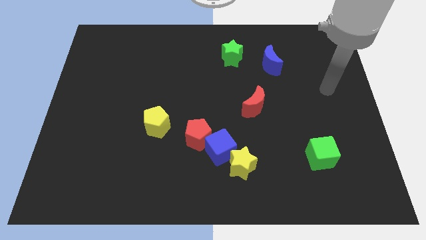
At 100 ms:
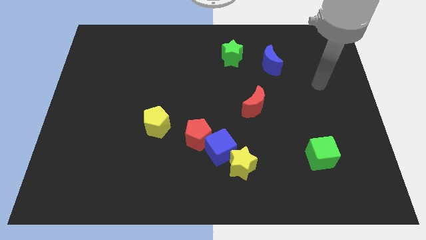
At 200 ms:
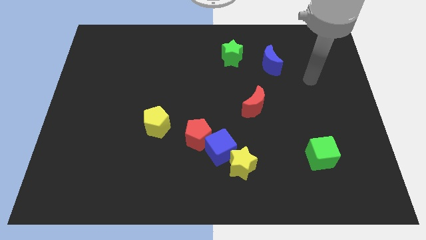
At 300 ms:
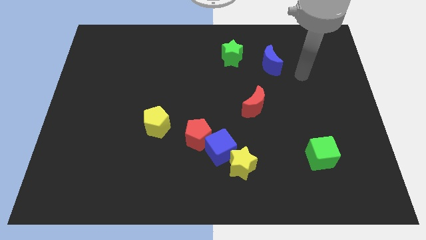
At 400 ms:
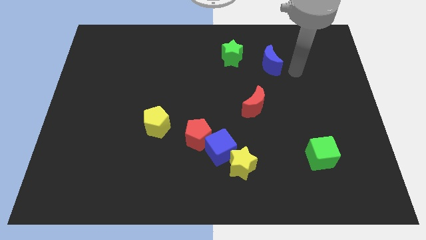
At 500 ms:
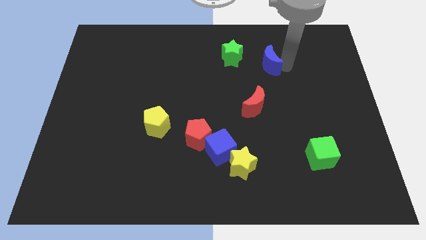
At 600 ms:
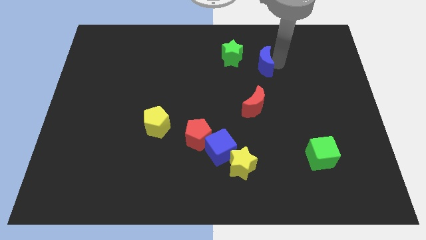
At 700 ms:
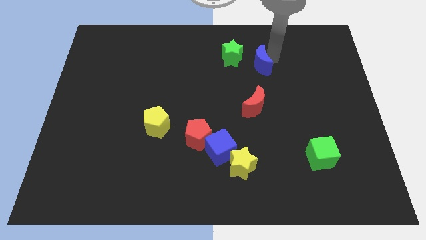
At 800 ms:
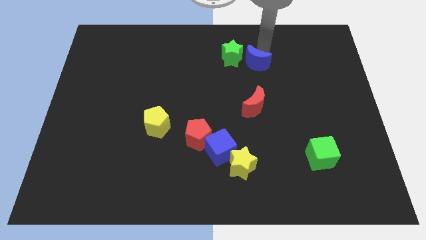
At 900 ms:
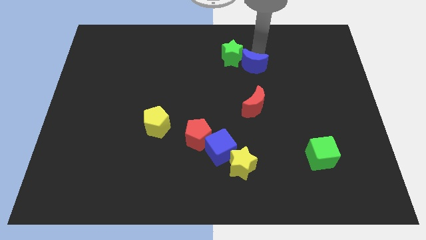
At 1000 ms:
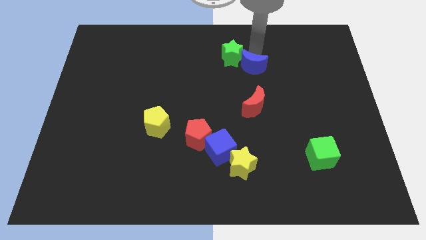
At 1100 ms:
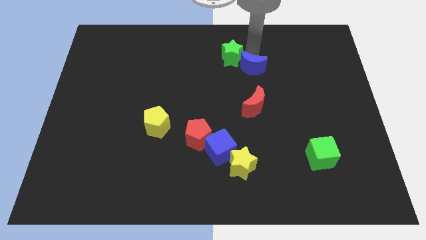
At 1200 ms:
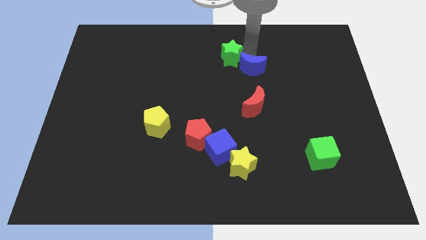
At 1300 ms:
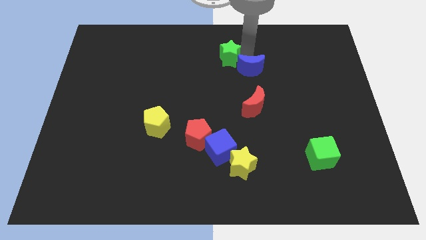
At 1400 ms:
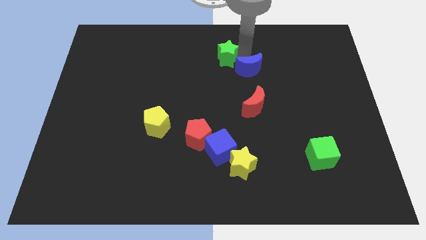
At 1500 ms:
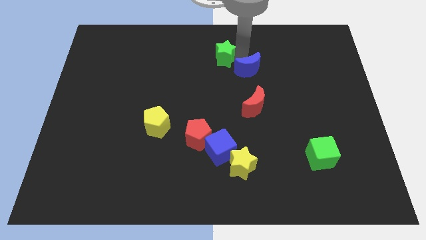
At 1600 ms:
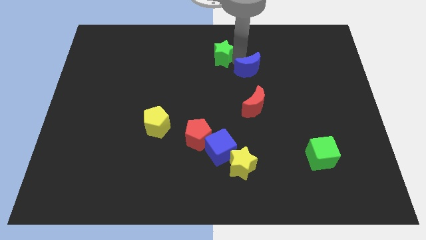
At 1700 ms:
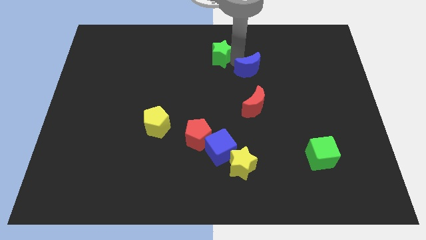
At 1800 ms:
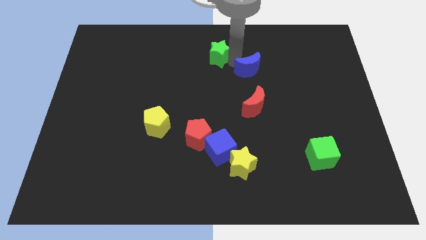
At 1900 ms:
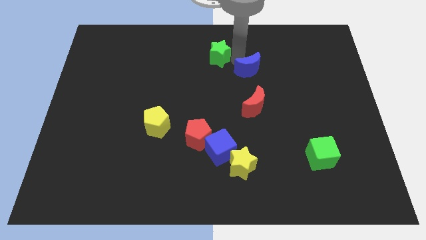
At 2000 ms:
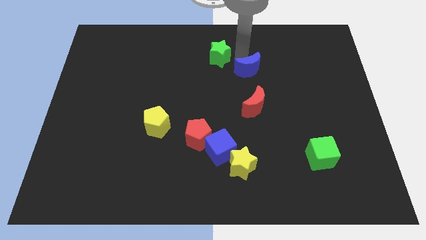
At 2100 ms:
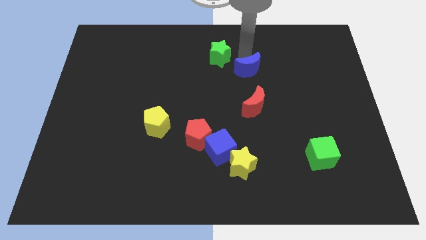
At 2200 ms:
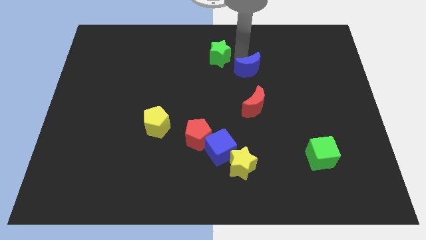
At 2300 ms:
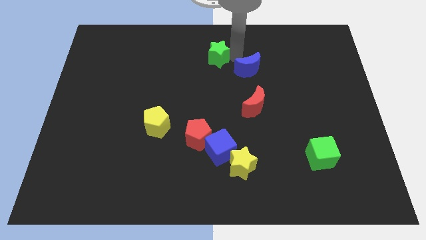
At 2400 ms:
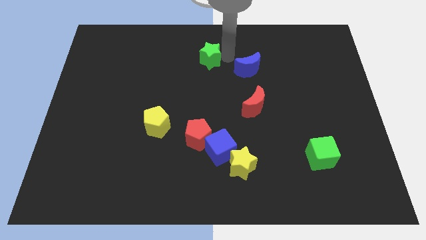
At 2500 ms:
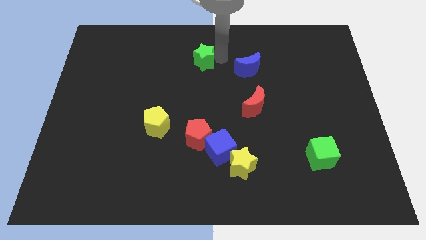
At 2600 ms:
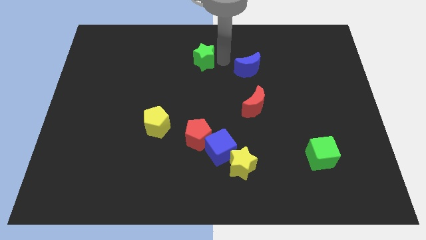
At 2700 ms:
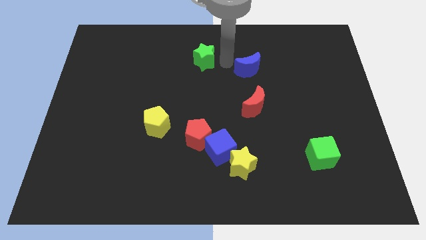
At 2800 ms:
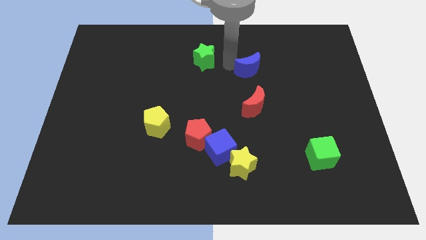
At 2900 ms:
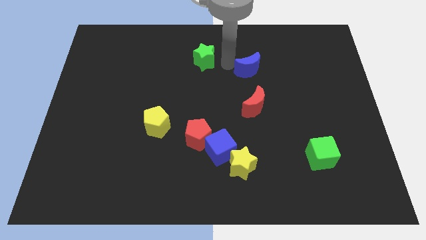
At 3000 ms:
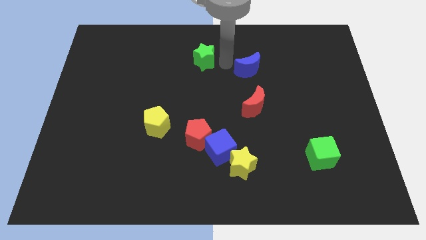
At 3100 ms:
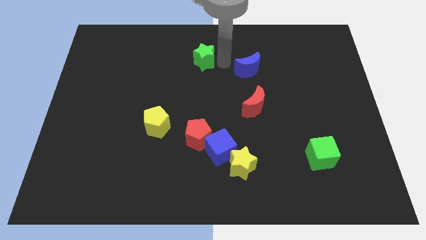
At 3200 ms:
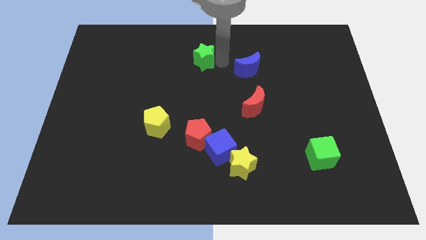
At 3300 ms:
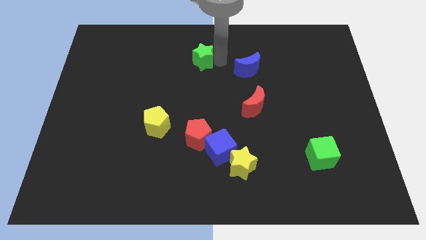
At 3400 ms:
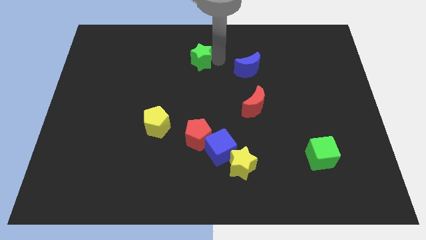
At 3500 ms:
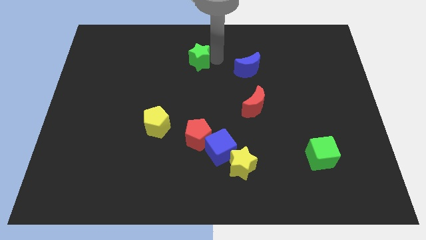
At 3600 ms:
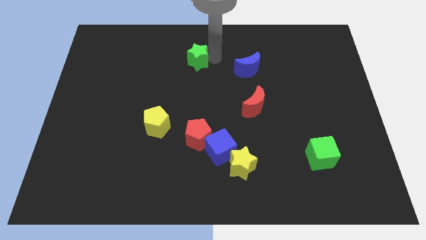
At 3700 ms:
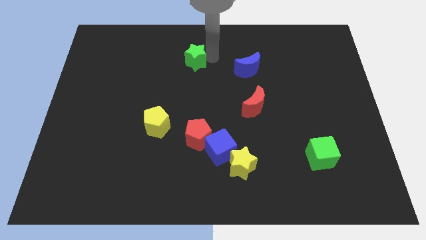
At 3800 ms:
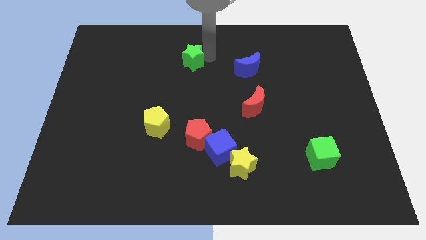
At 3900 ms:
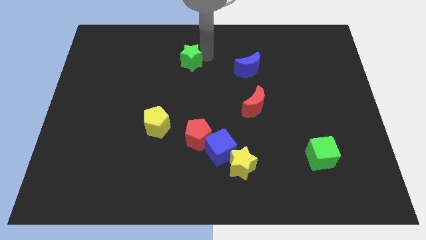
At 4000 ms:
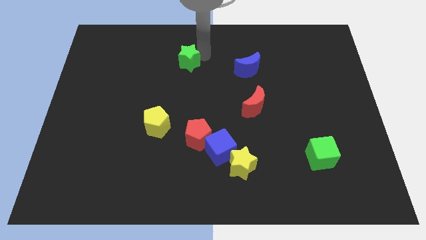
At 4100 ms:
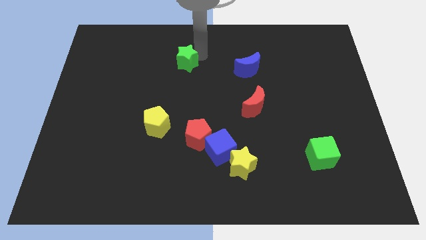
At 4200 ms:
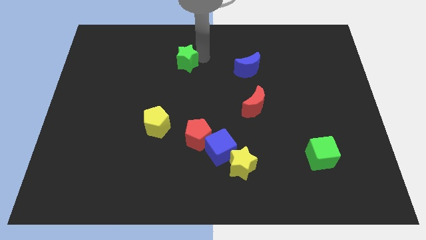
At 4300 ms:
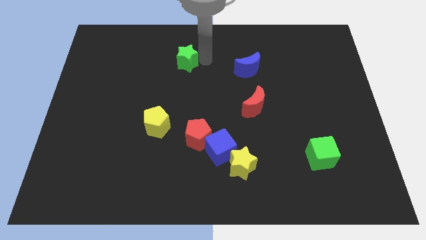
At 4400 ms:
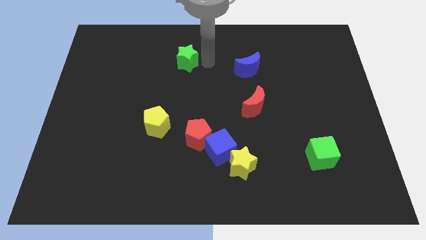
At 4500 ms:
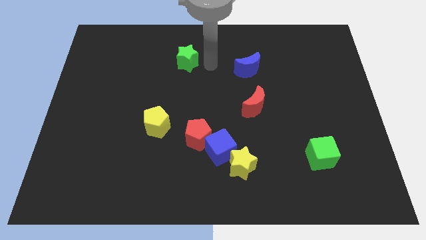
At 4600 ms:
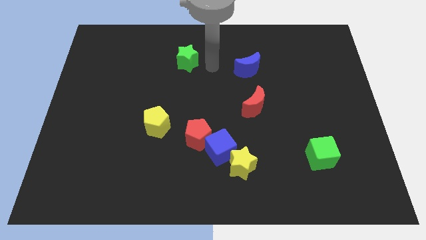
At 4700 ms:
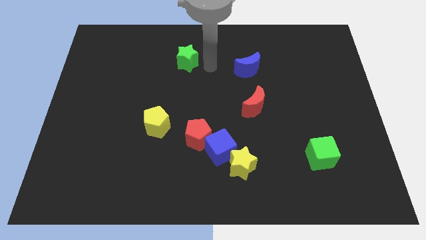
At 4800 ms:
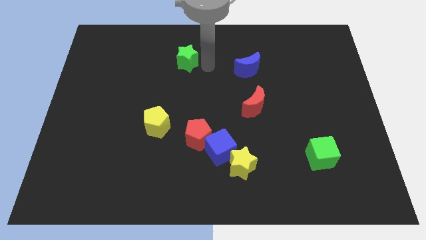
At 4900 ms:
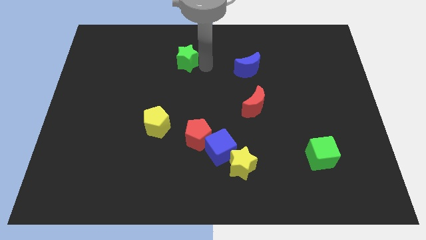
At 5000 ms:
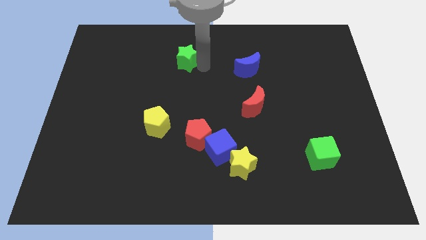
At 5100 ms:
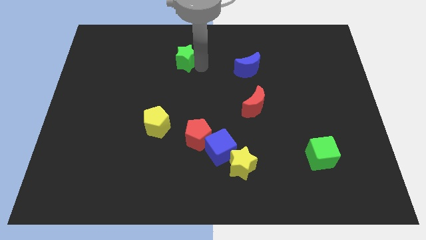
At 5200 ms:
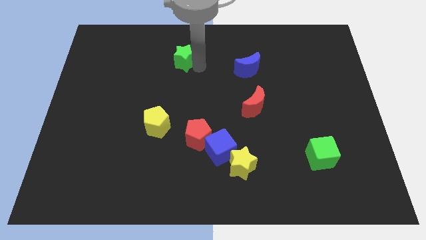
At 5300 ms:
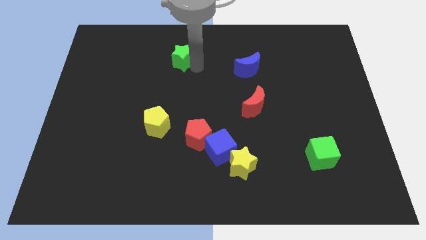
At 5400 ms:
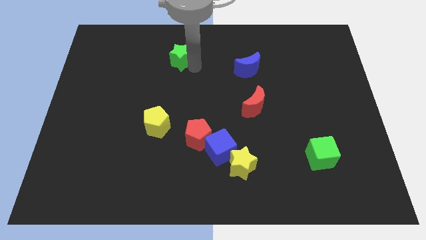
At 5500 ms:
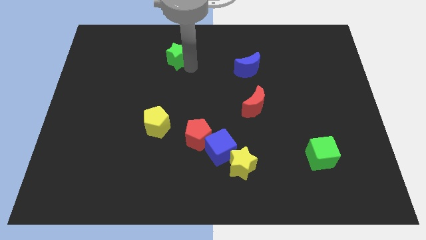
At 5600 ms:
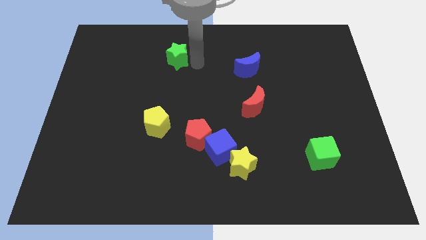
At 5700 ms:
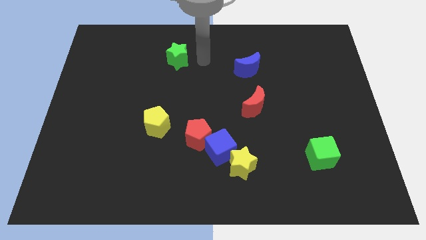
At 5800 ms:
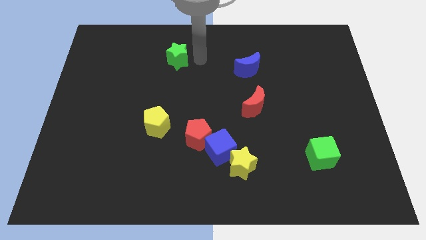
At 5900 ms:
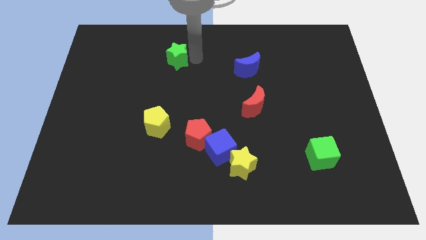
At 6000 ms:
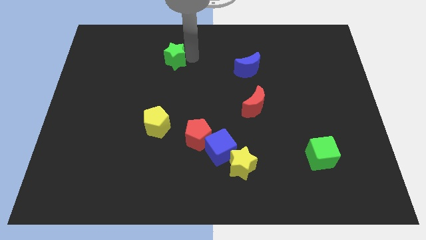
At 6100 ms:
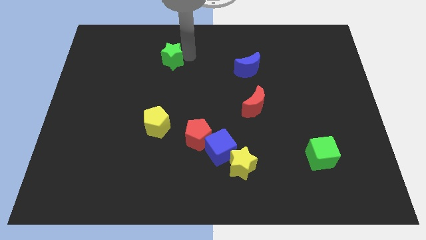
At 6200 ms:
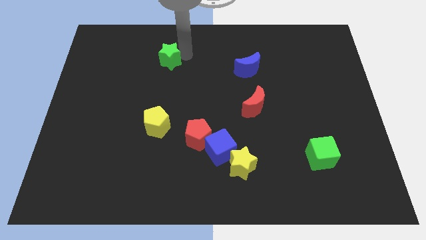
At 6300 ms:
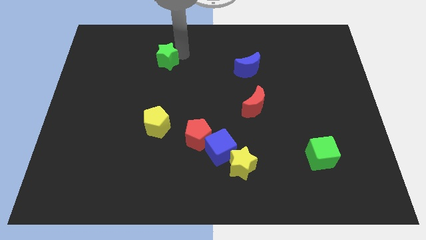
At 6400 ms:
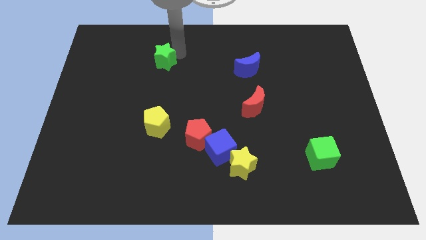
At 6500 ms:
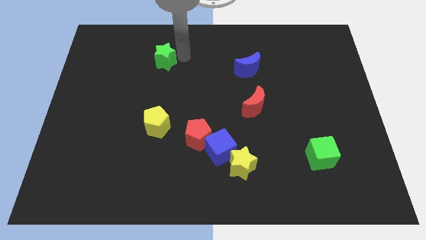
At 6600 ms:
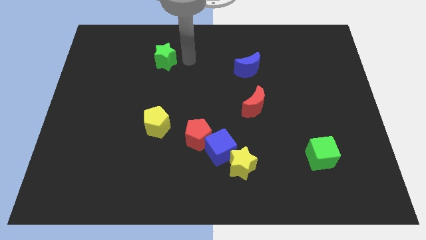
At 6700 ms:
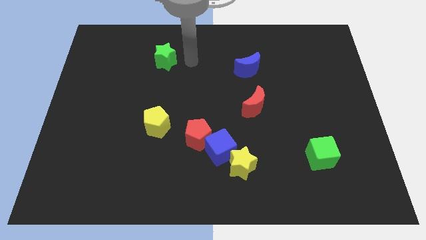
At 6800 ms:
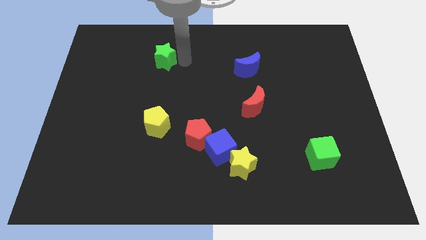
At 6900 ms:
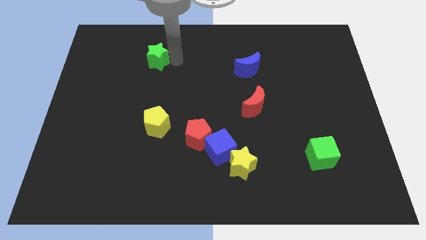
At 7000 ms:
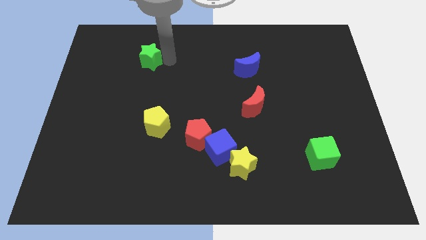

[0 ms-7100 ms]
push the green star to the left

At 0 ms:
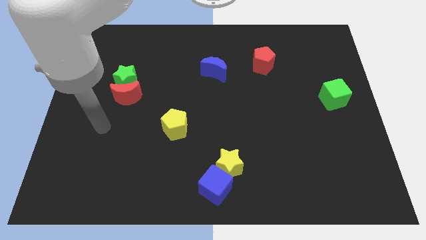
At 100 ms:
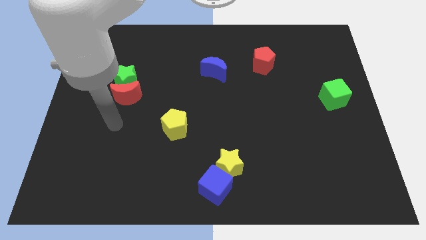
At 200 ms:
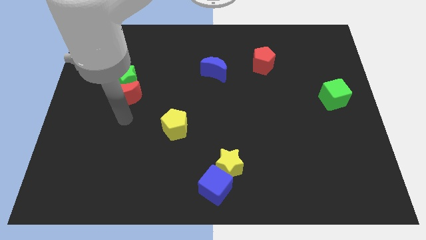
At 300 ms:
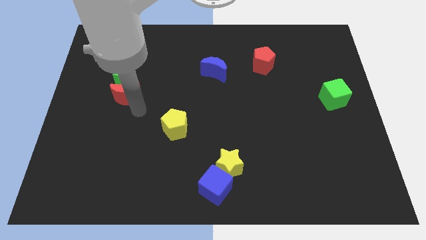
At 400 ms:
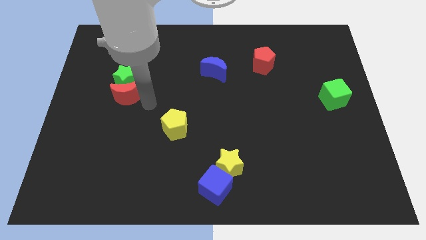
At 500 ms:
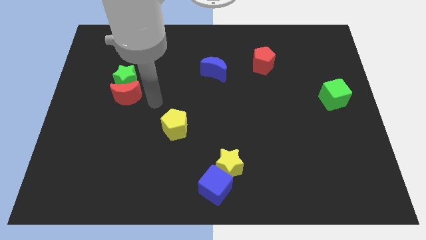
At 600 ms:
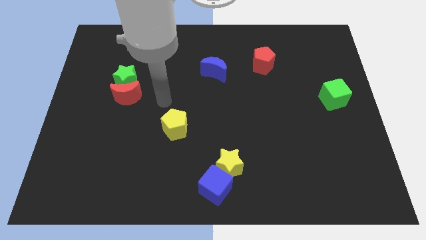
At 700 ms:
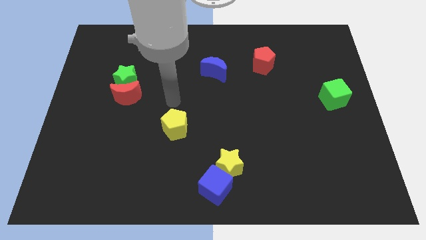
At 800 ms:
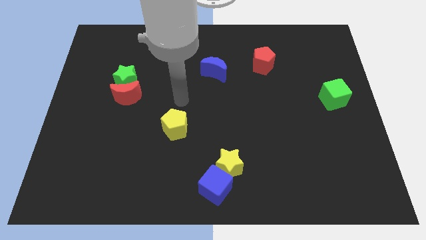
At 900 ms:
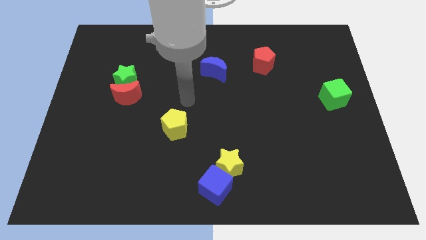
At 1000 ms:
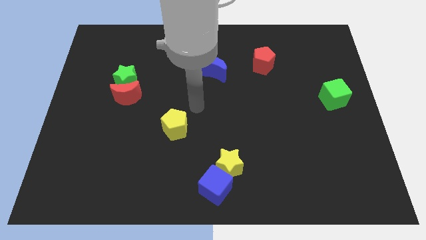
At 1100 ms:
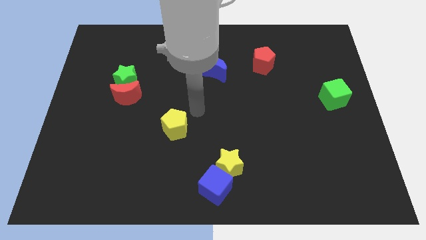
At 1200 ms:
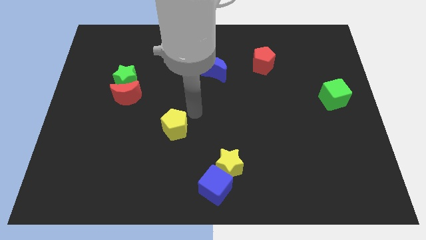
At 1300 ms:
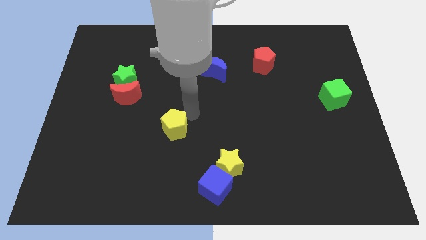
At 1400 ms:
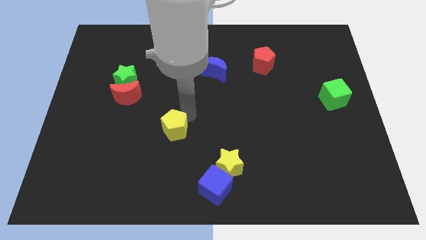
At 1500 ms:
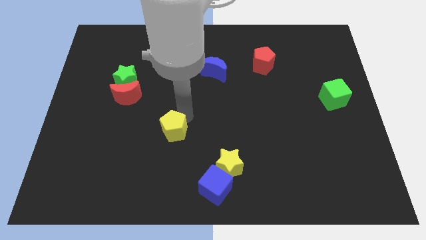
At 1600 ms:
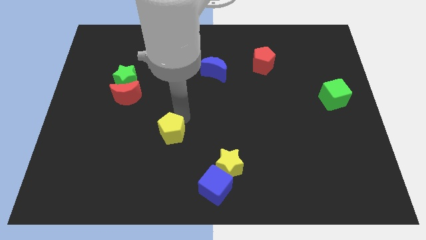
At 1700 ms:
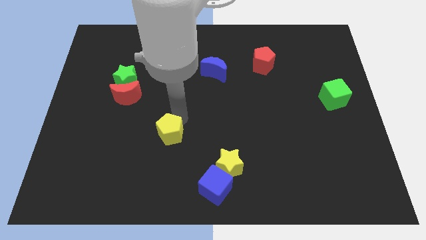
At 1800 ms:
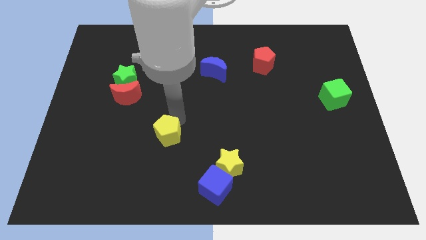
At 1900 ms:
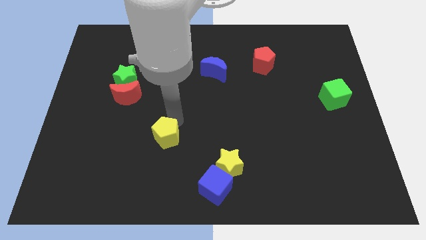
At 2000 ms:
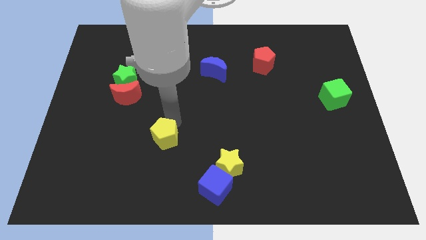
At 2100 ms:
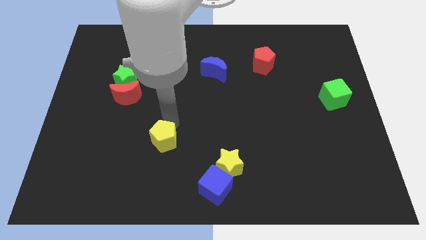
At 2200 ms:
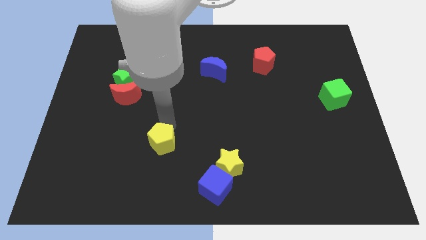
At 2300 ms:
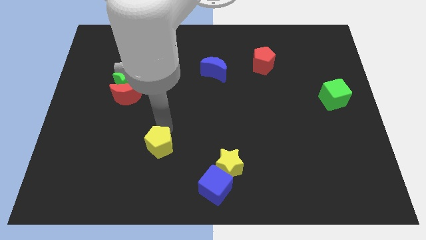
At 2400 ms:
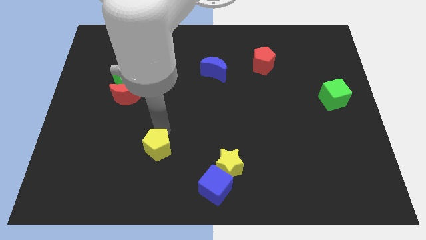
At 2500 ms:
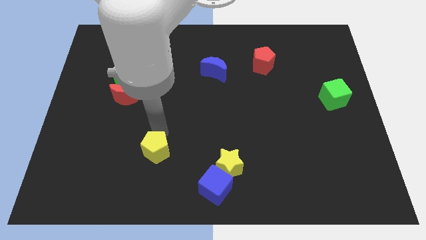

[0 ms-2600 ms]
push the yellow pentagon downwards and then left a little bit
